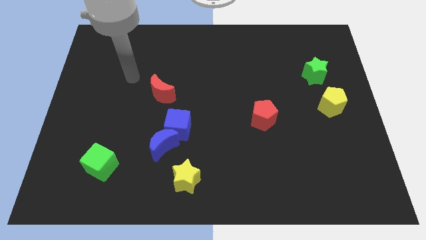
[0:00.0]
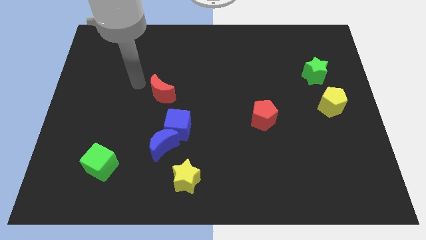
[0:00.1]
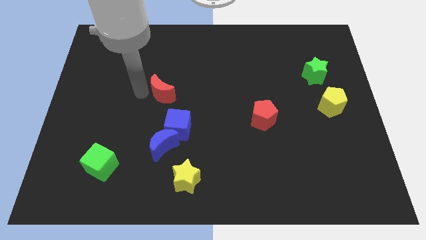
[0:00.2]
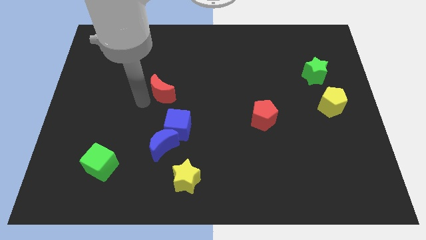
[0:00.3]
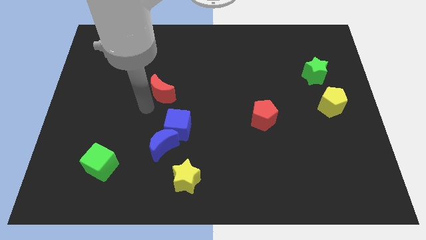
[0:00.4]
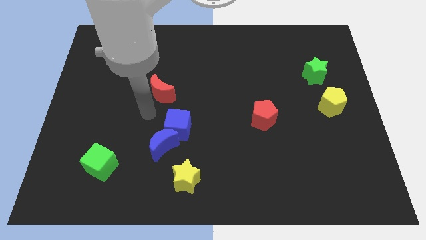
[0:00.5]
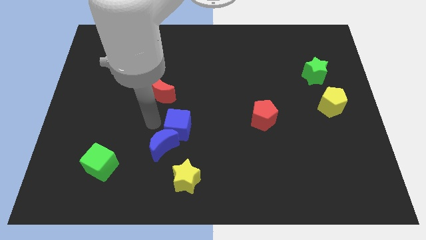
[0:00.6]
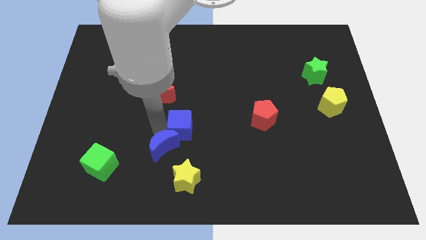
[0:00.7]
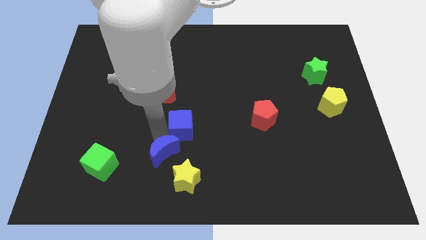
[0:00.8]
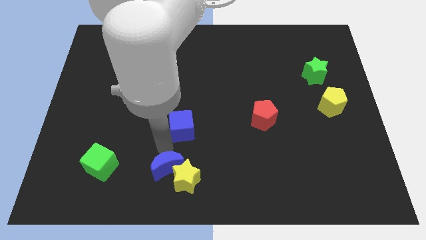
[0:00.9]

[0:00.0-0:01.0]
move the blue cube away from the blue moon

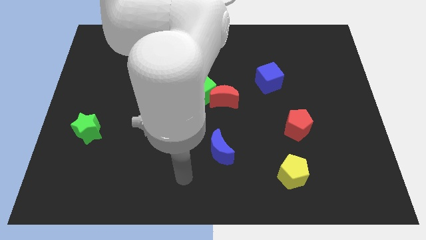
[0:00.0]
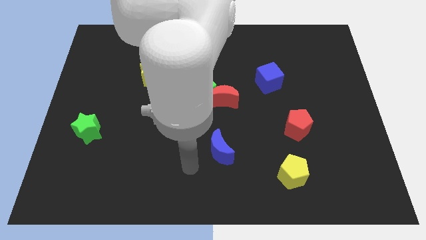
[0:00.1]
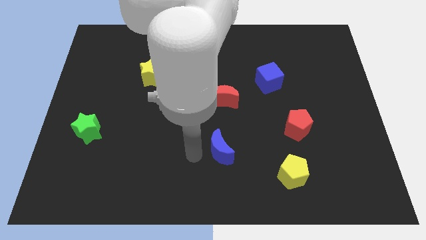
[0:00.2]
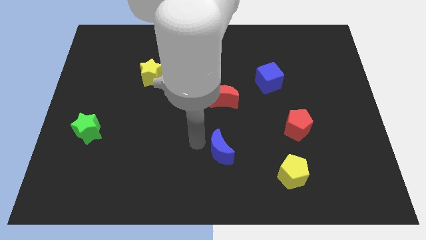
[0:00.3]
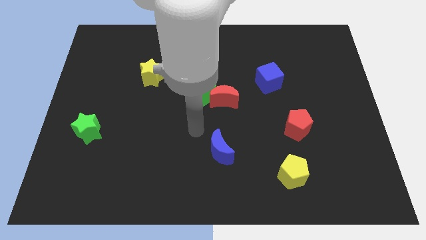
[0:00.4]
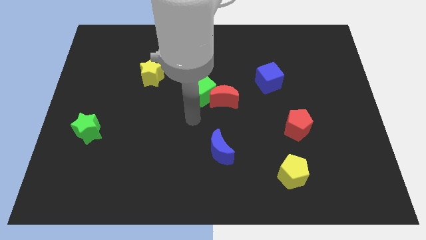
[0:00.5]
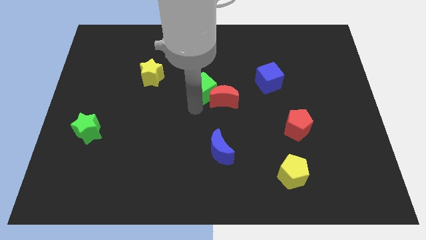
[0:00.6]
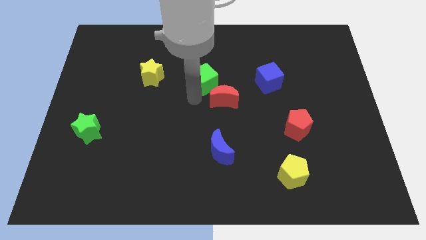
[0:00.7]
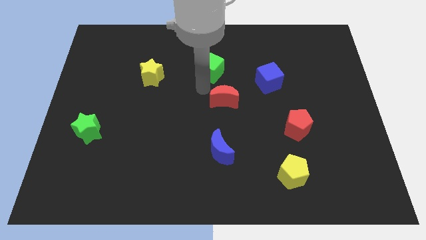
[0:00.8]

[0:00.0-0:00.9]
separate the red moon from the green cube

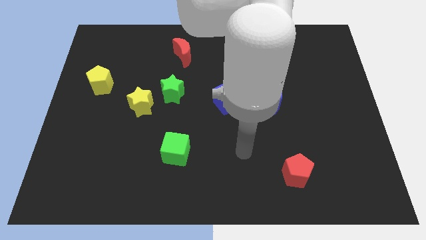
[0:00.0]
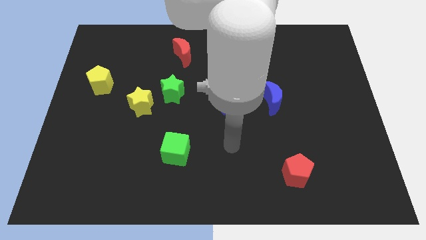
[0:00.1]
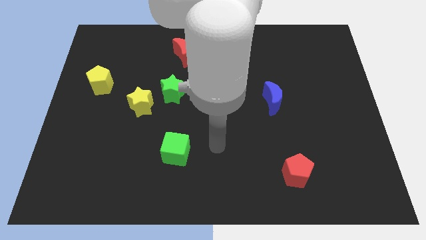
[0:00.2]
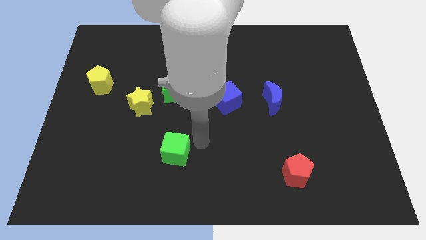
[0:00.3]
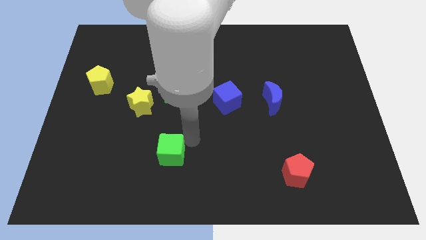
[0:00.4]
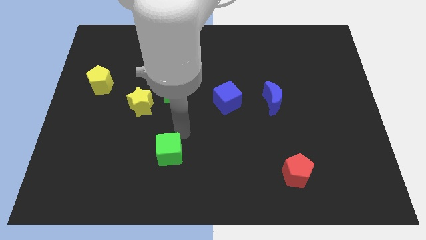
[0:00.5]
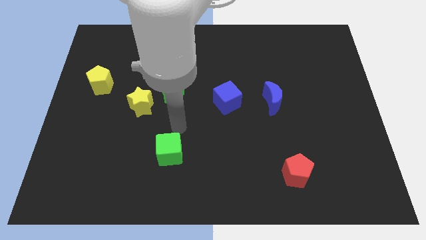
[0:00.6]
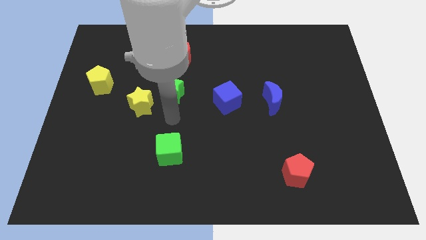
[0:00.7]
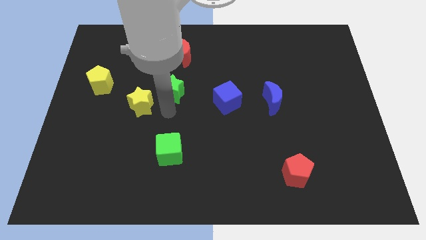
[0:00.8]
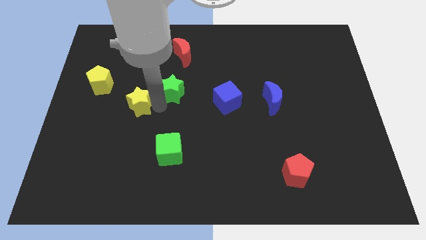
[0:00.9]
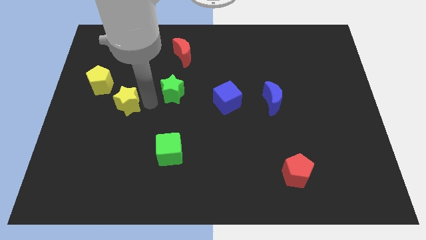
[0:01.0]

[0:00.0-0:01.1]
separate the green star from the yellow star

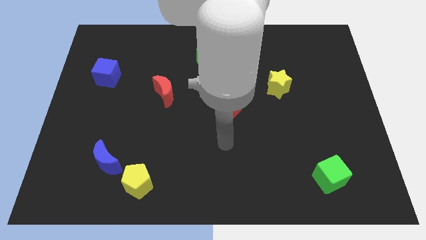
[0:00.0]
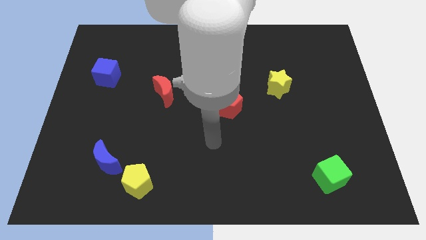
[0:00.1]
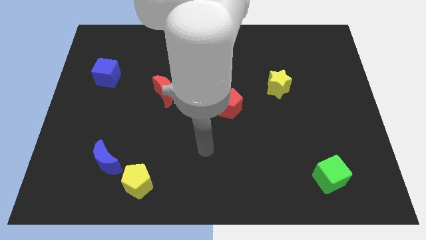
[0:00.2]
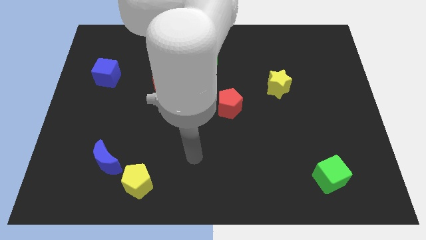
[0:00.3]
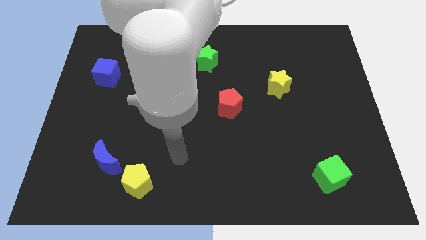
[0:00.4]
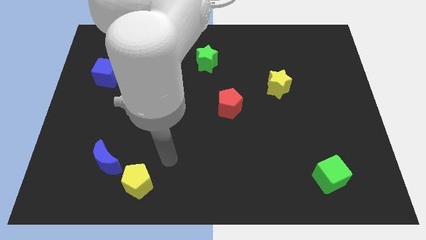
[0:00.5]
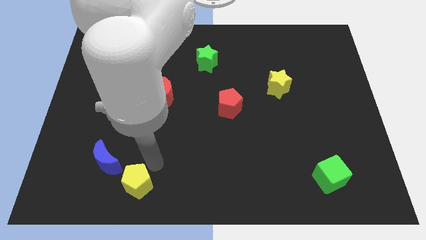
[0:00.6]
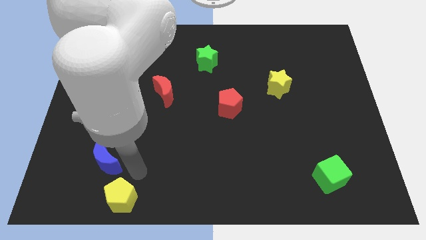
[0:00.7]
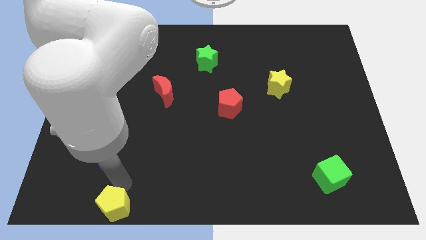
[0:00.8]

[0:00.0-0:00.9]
separate the blue moon from the yellow pentagon

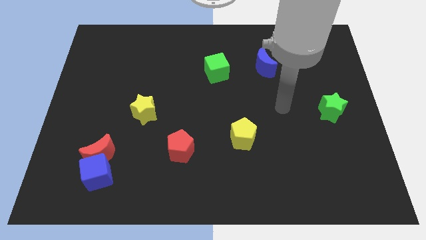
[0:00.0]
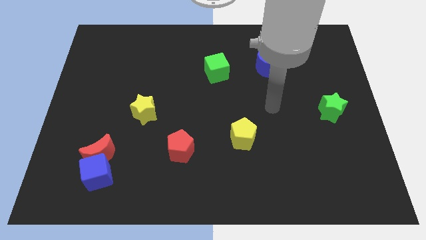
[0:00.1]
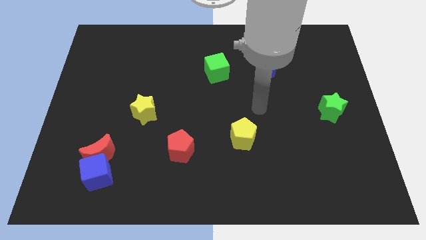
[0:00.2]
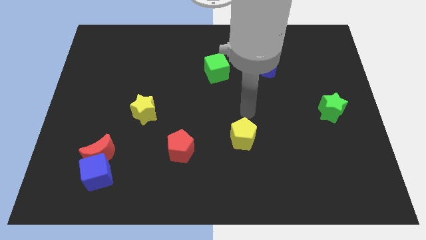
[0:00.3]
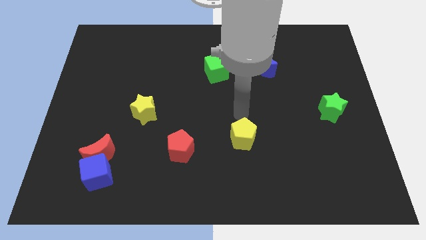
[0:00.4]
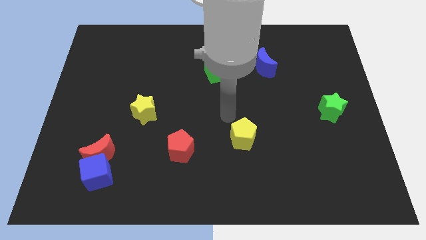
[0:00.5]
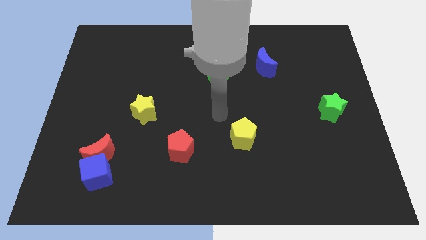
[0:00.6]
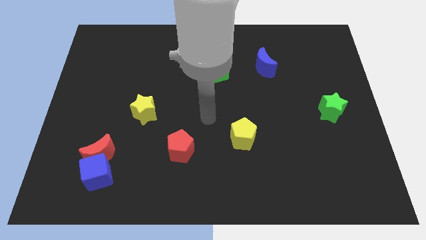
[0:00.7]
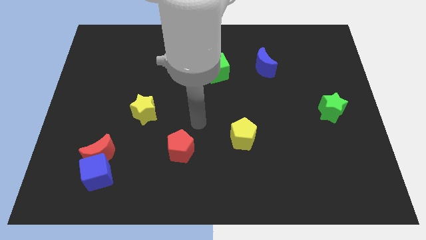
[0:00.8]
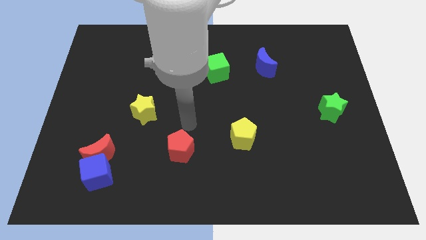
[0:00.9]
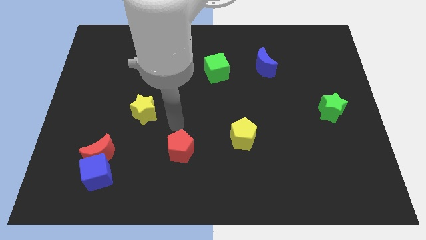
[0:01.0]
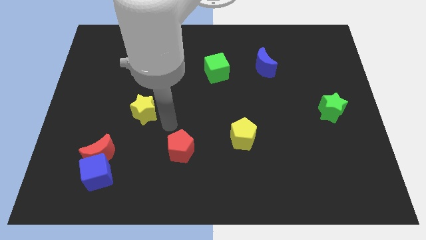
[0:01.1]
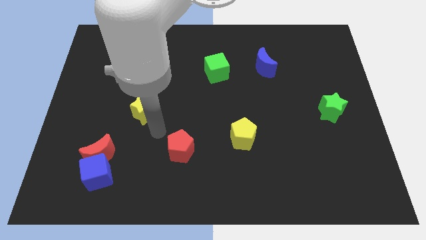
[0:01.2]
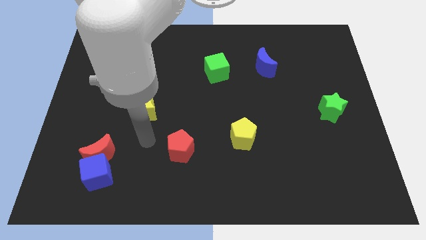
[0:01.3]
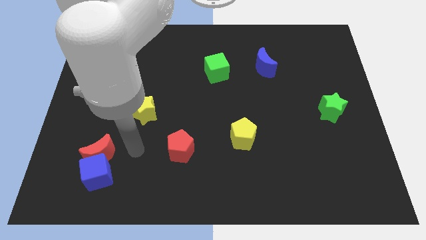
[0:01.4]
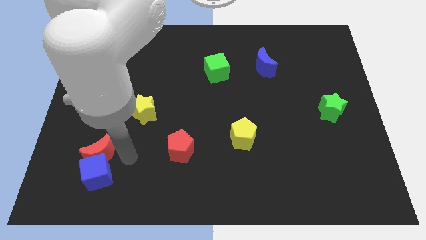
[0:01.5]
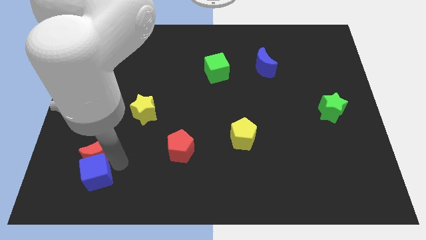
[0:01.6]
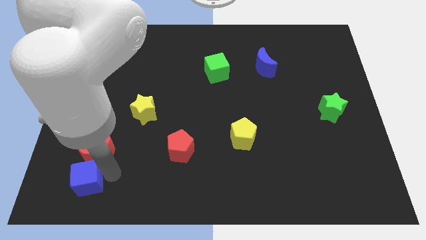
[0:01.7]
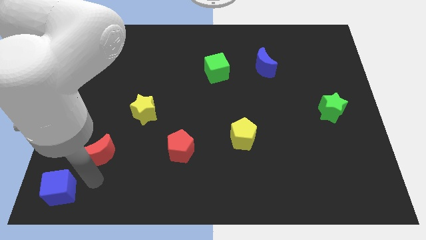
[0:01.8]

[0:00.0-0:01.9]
move the red moon away from the blue cube

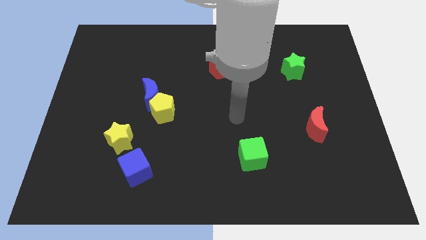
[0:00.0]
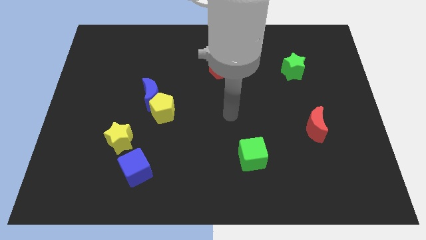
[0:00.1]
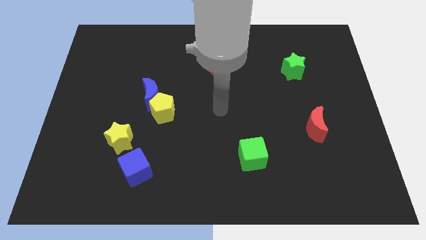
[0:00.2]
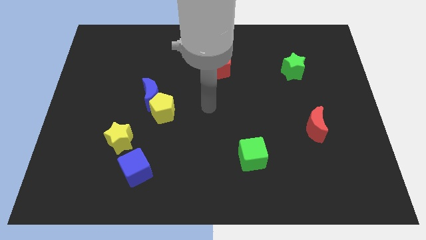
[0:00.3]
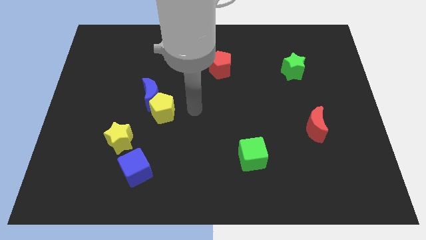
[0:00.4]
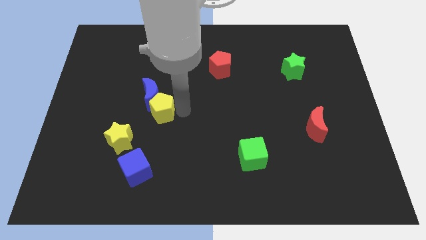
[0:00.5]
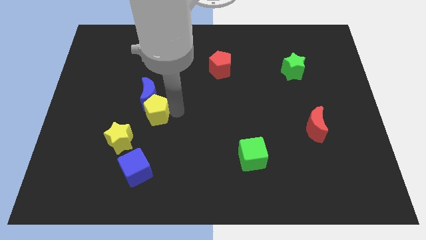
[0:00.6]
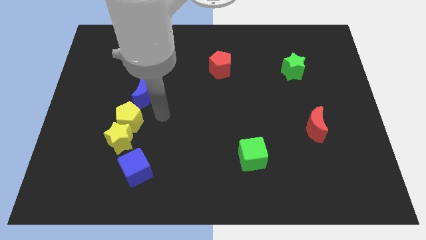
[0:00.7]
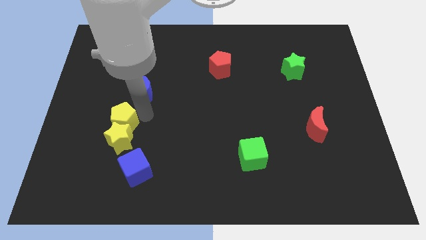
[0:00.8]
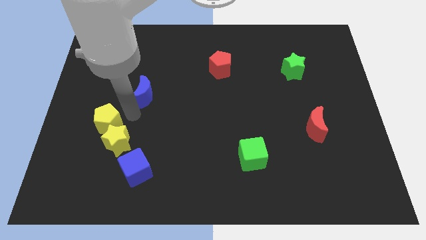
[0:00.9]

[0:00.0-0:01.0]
move the blue moon away from the yellow pentagon

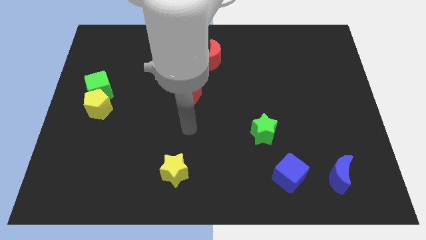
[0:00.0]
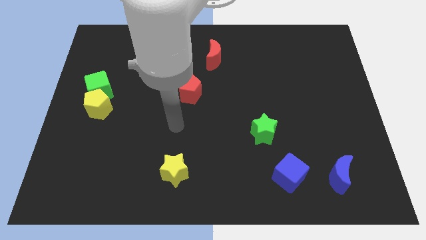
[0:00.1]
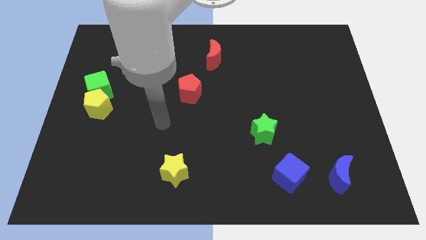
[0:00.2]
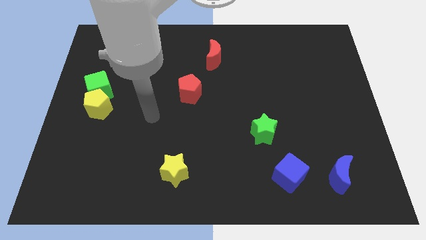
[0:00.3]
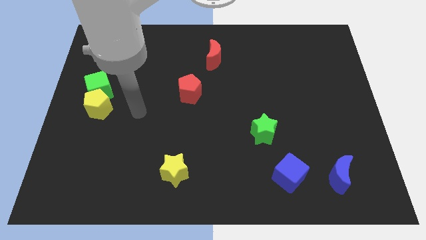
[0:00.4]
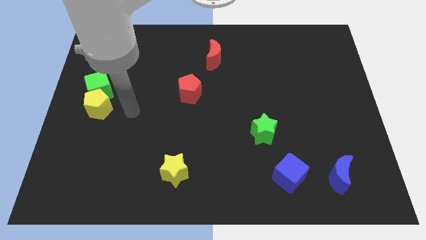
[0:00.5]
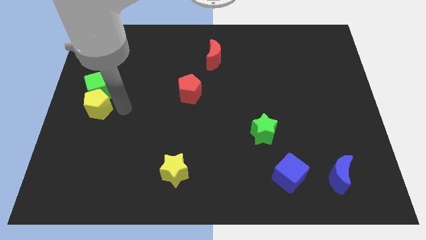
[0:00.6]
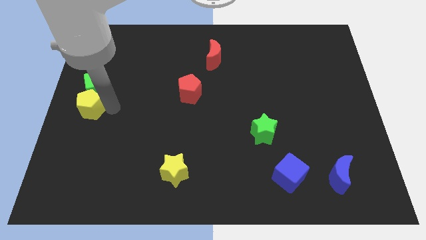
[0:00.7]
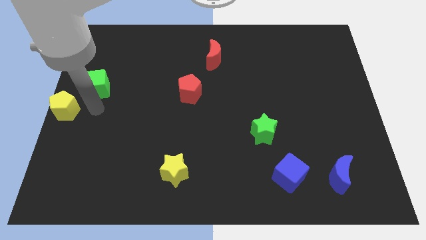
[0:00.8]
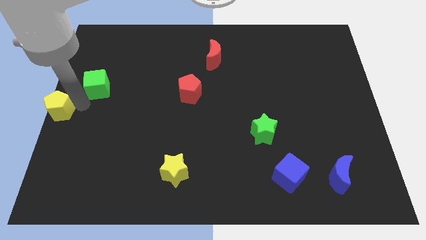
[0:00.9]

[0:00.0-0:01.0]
separate the green cube from the yellow pentagon

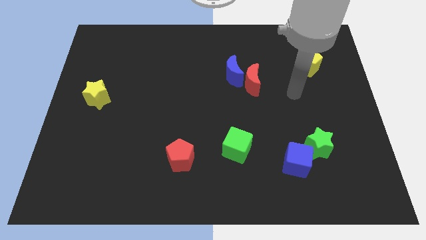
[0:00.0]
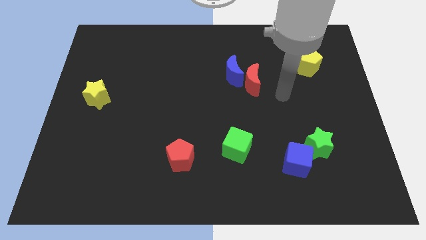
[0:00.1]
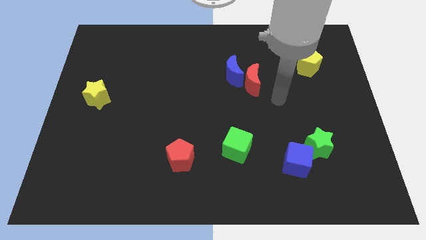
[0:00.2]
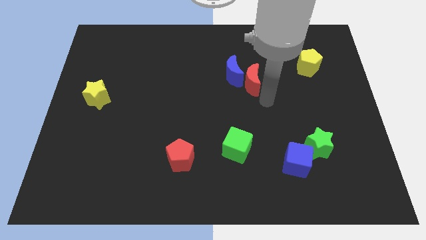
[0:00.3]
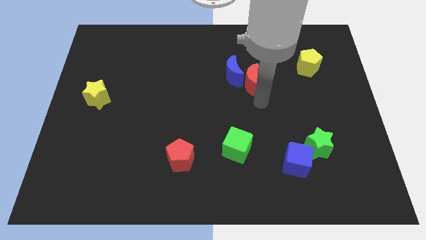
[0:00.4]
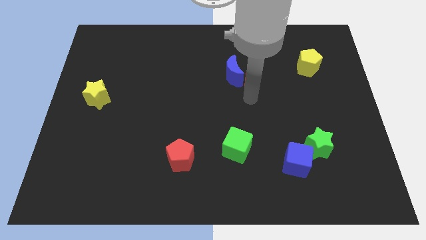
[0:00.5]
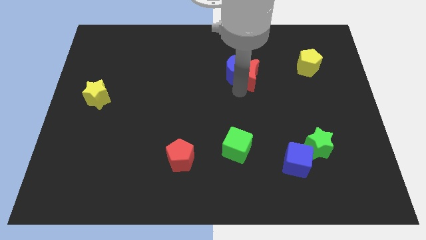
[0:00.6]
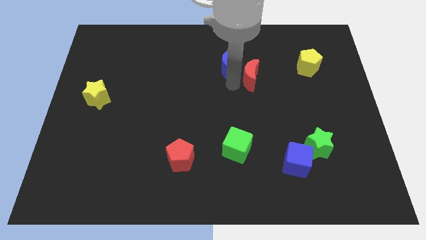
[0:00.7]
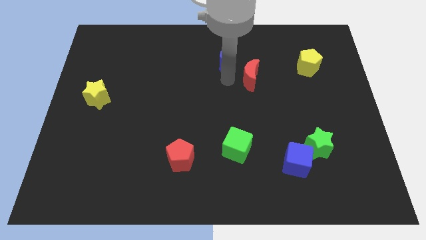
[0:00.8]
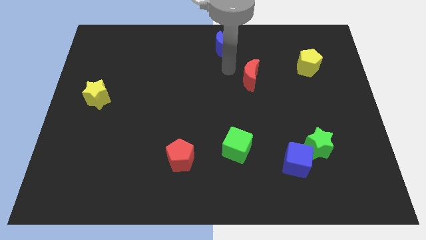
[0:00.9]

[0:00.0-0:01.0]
pull the red moon apart from the blue moon

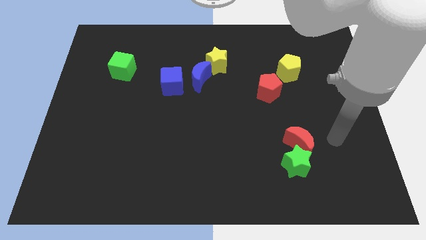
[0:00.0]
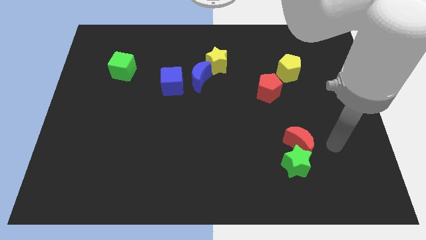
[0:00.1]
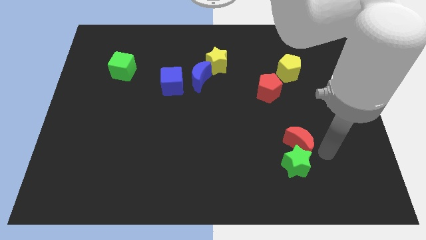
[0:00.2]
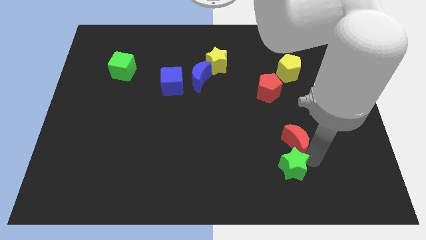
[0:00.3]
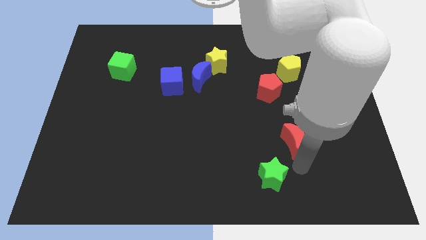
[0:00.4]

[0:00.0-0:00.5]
pull the red moon apart from the green star
